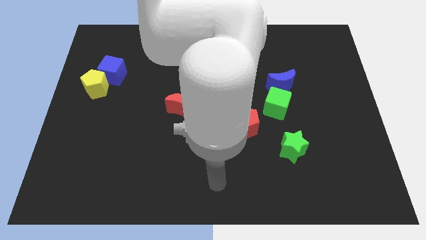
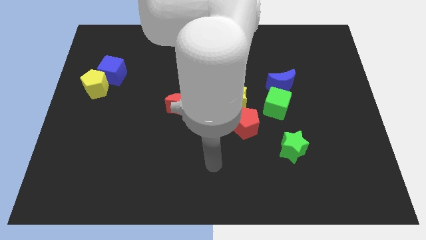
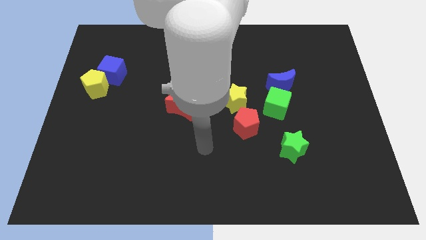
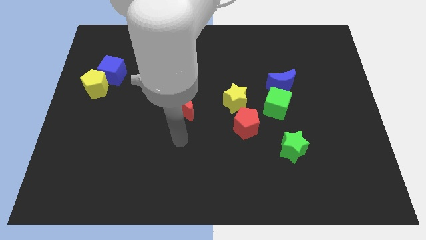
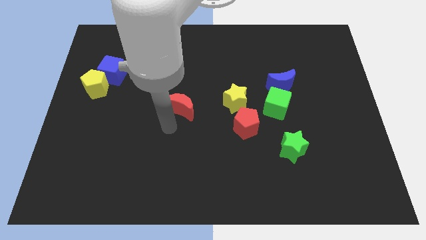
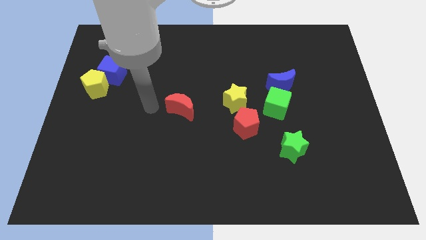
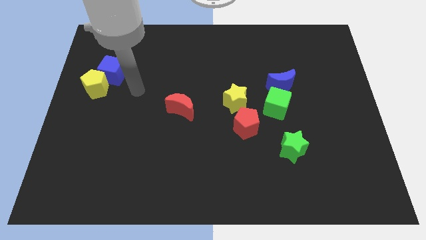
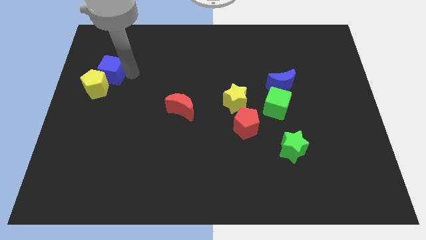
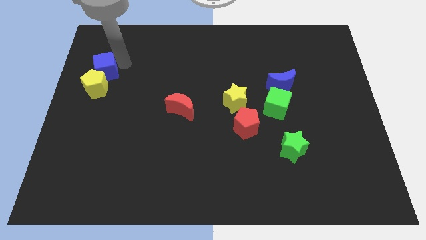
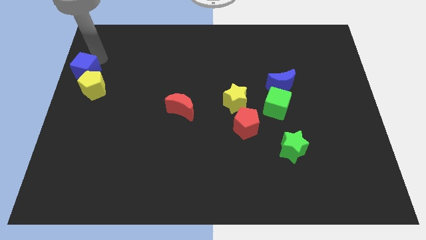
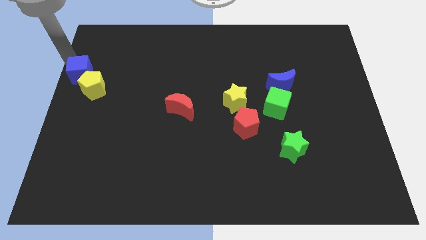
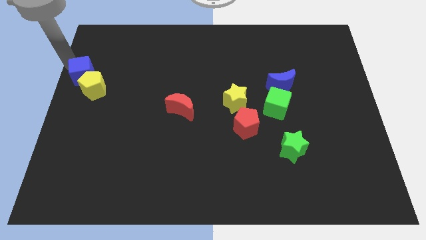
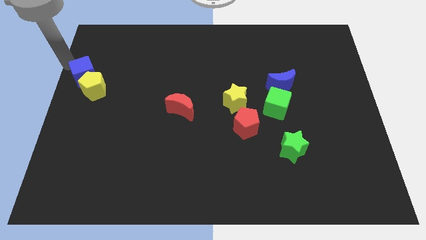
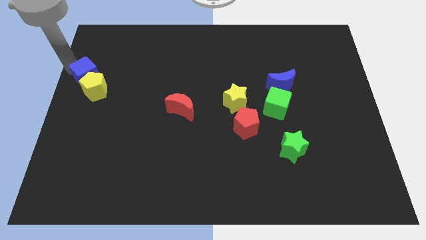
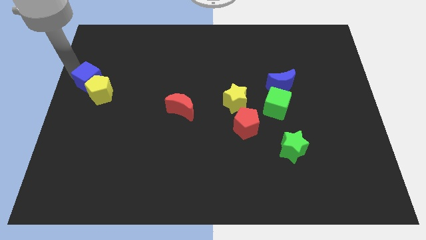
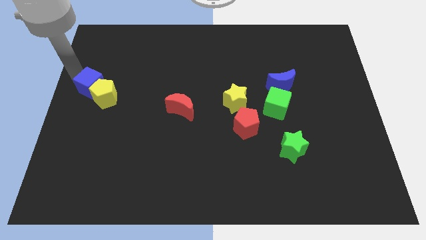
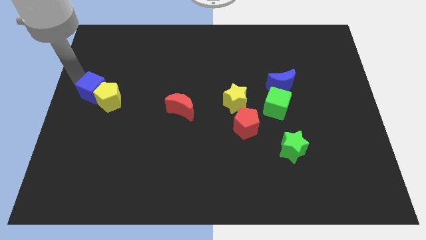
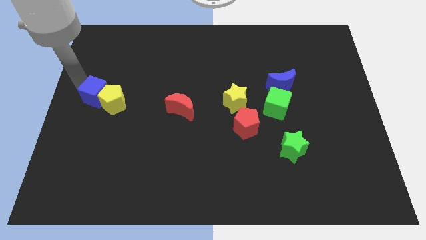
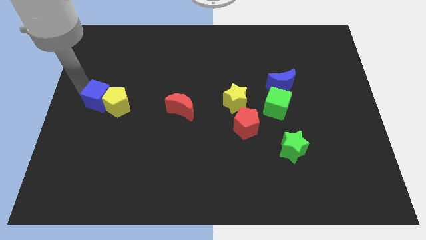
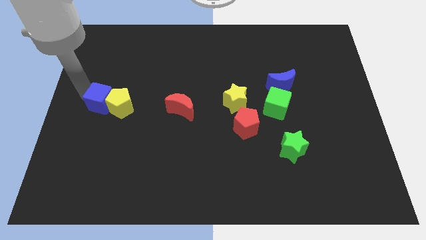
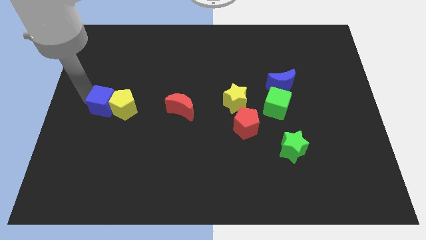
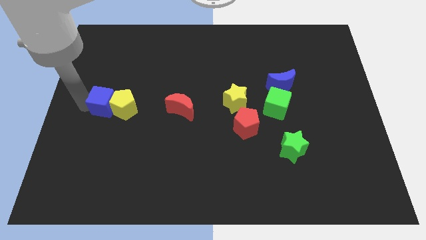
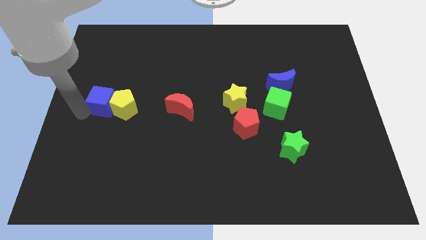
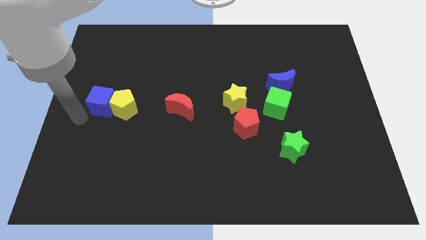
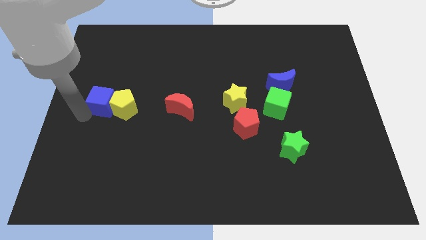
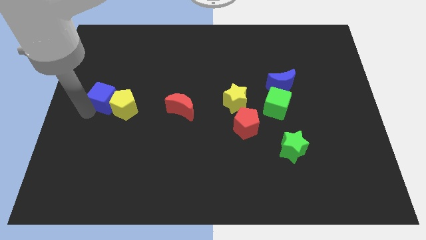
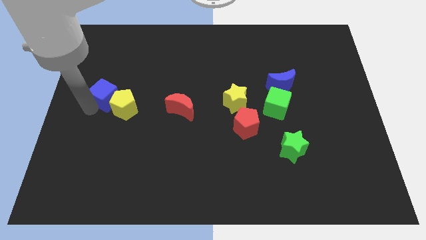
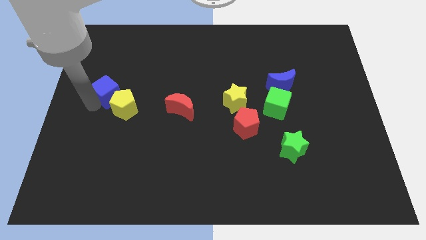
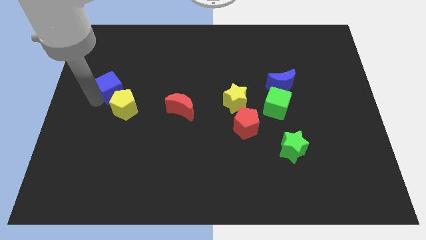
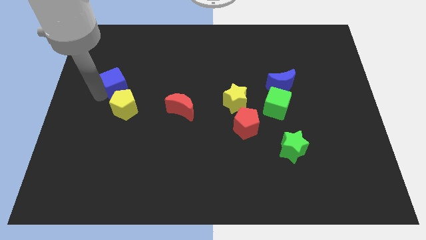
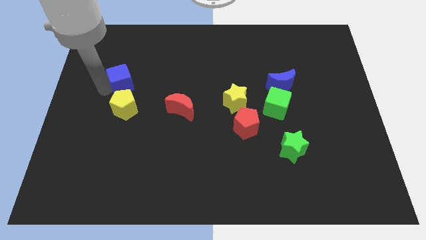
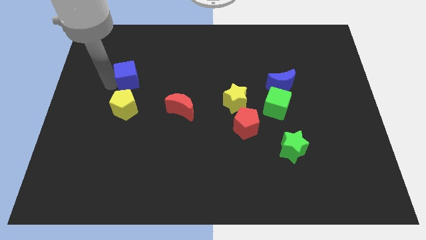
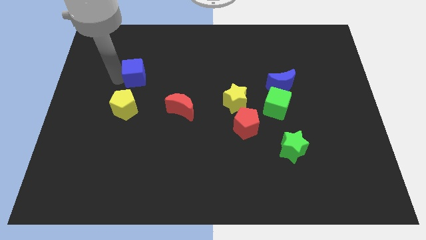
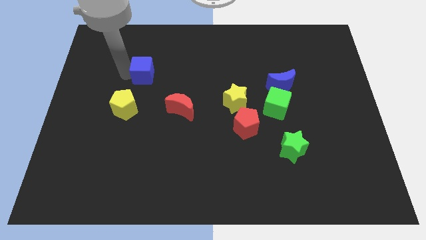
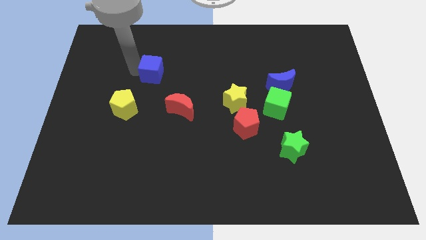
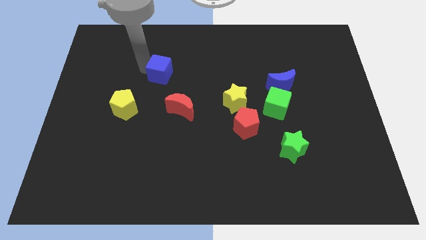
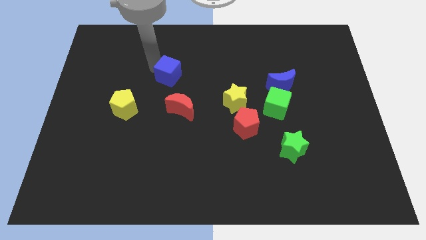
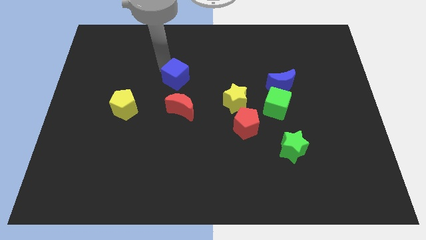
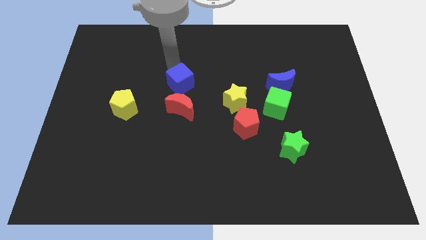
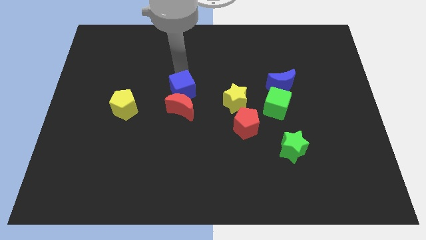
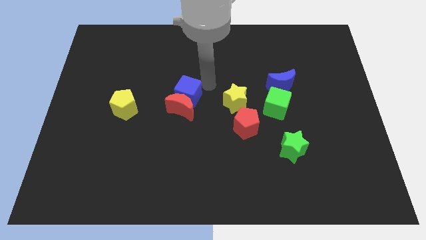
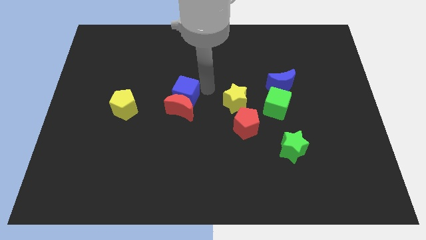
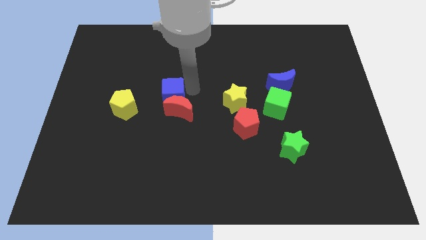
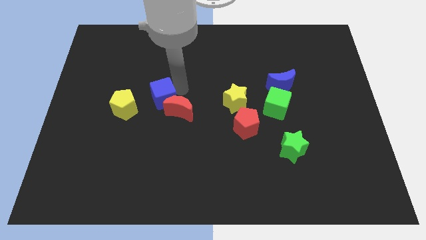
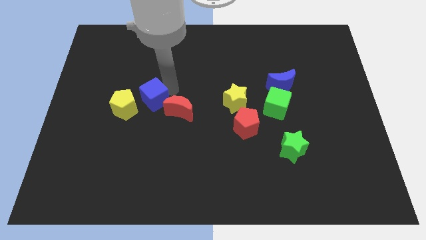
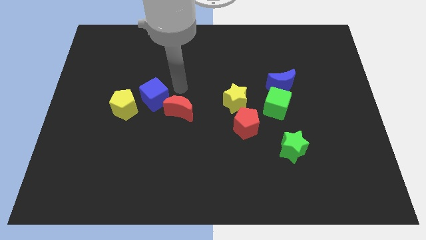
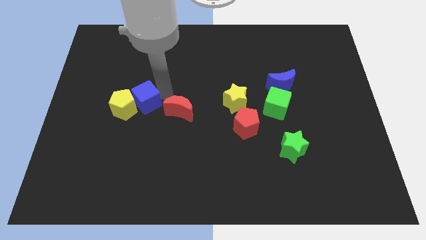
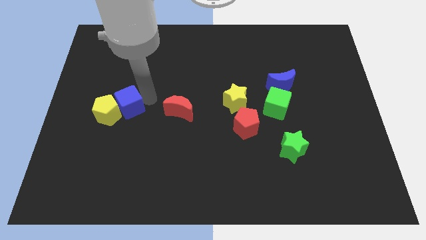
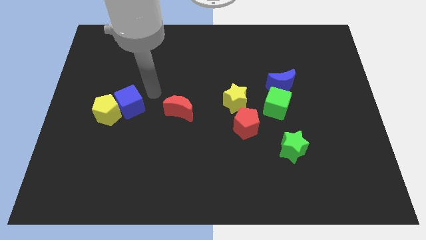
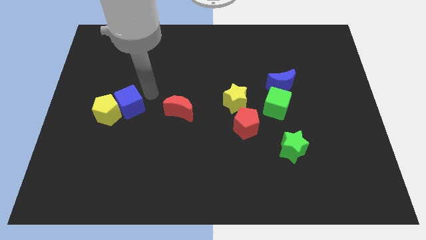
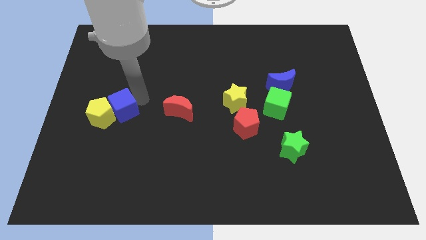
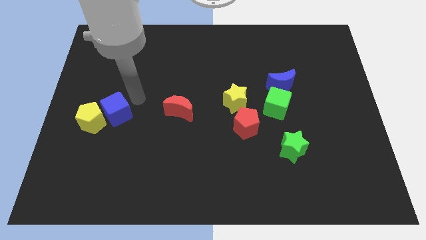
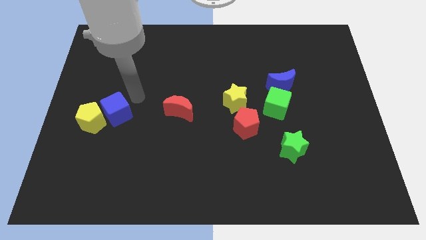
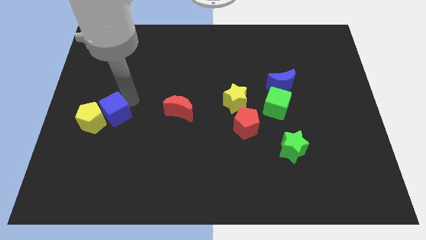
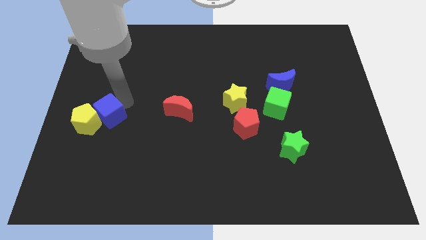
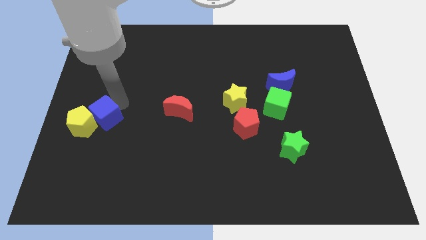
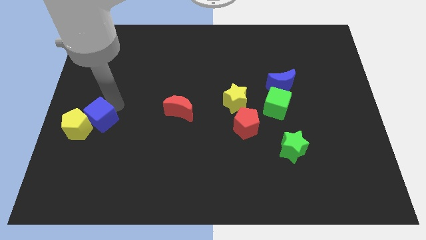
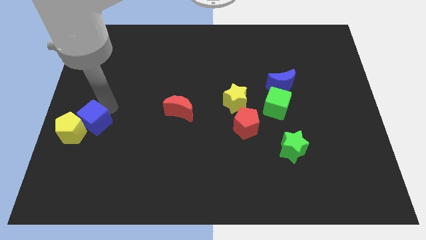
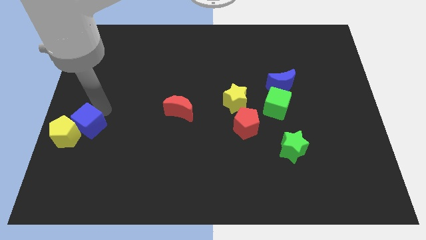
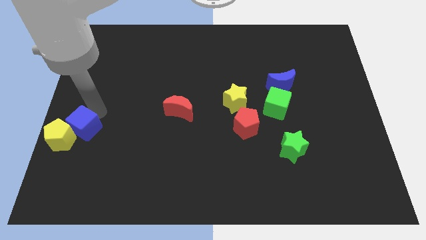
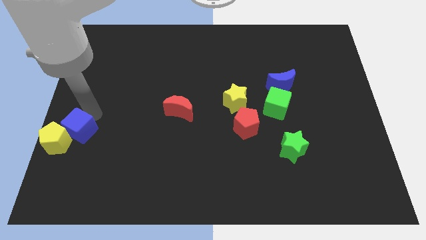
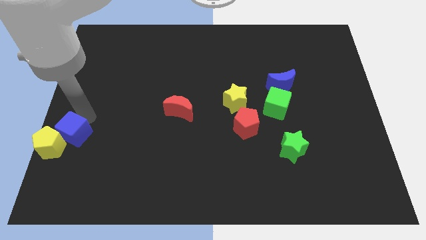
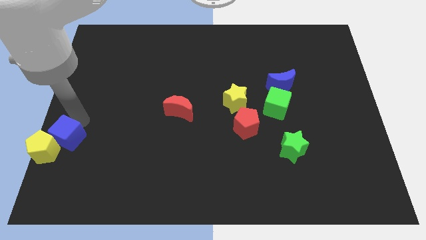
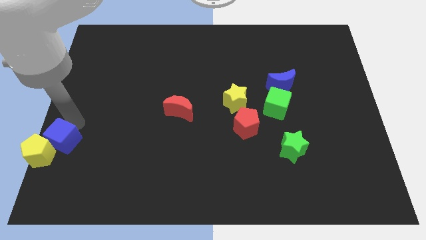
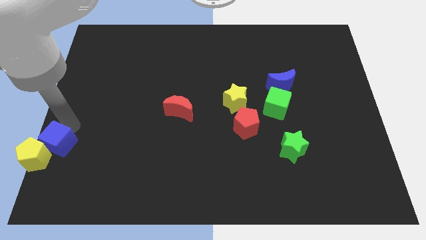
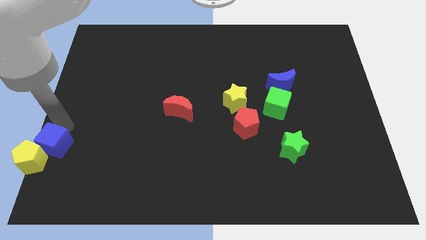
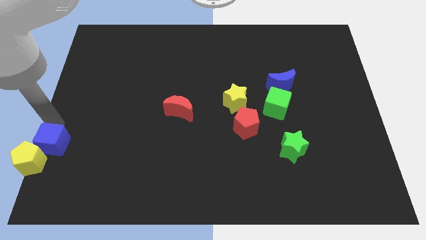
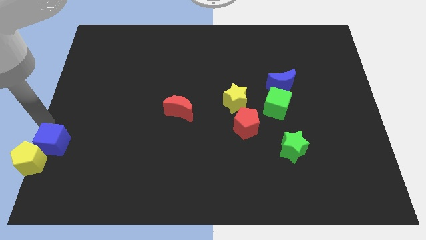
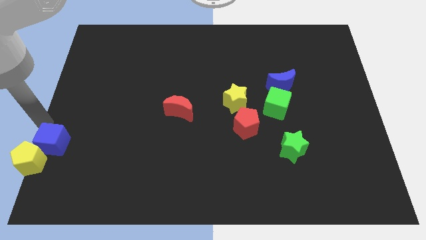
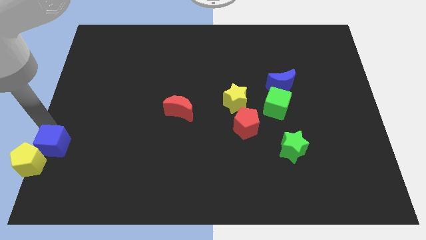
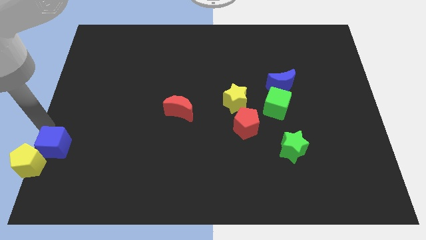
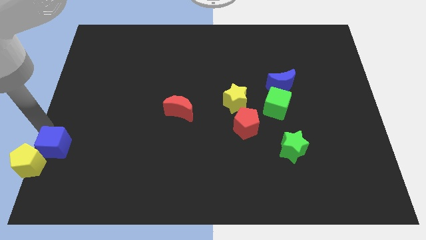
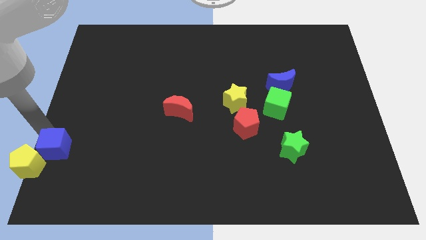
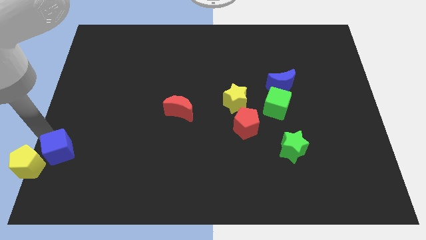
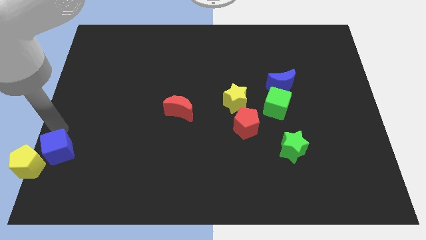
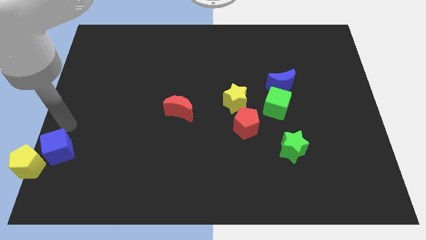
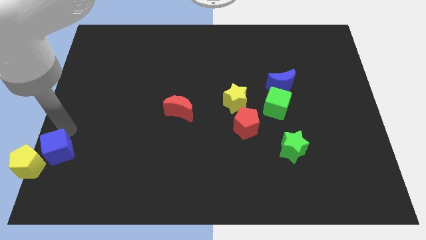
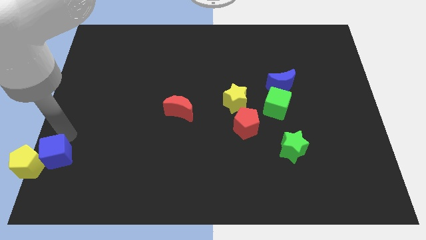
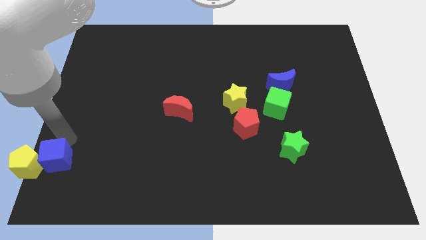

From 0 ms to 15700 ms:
move the blue cube to the bottom left
